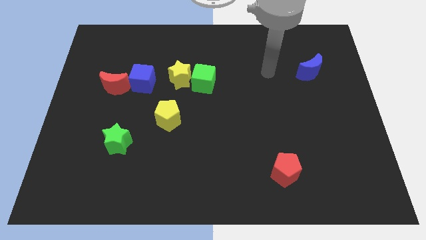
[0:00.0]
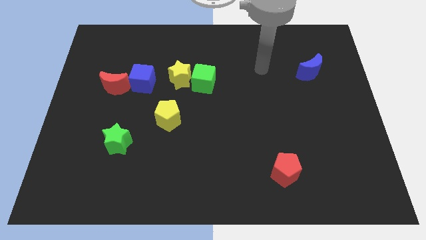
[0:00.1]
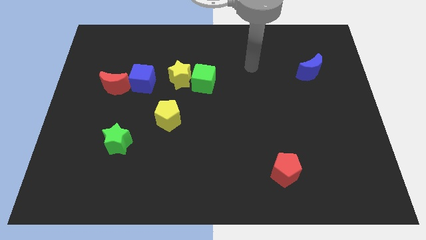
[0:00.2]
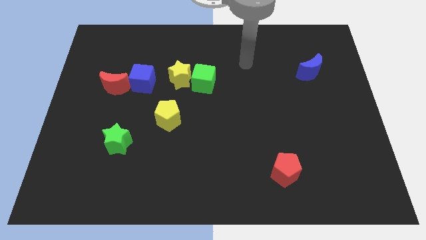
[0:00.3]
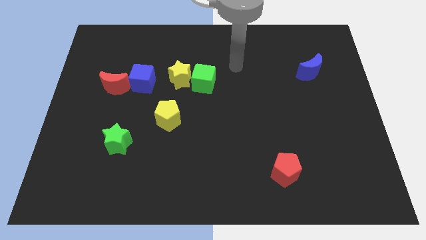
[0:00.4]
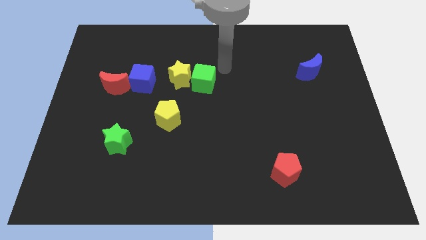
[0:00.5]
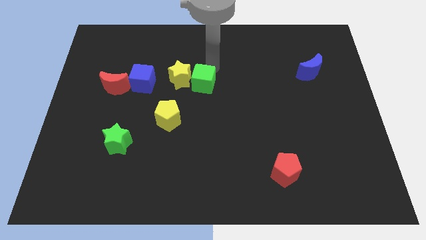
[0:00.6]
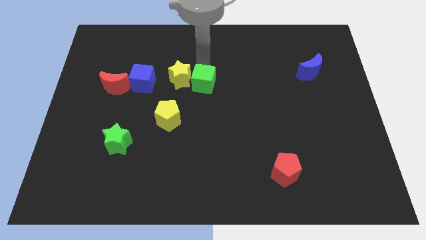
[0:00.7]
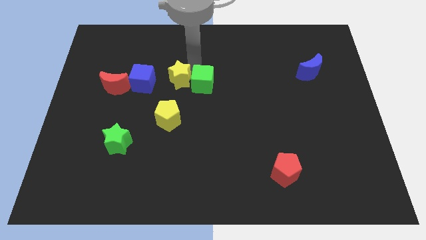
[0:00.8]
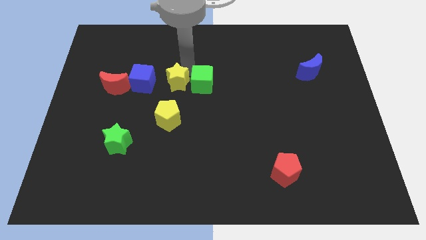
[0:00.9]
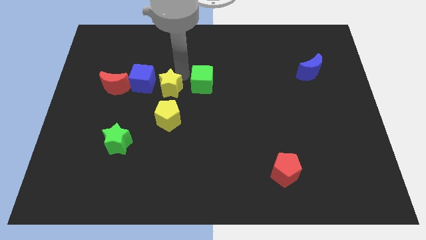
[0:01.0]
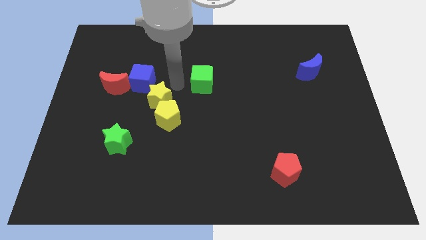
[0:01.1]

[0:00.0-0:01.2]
separate the green cube from the yellow star

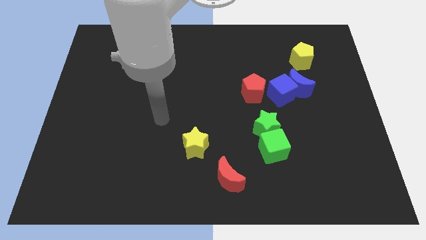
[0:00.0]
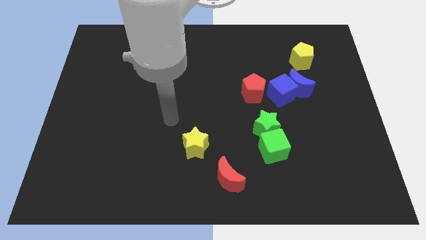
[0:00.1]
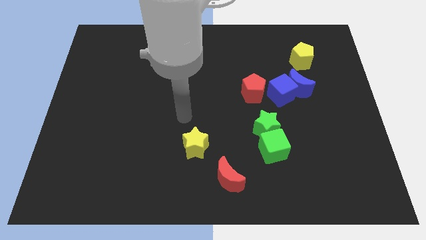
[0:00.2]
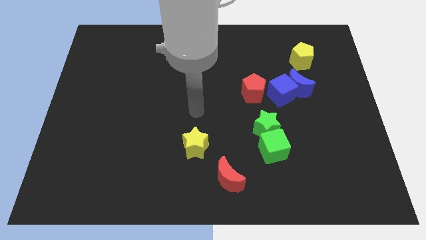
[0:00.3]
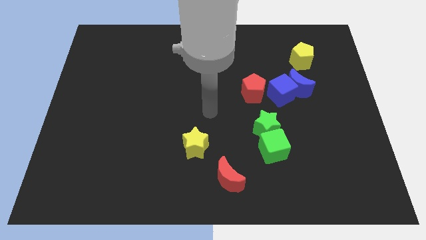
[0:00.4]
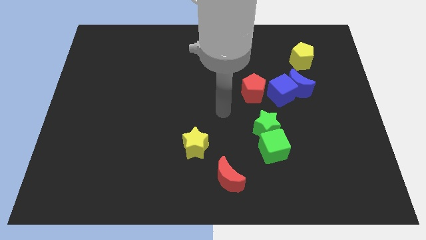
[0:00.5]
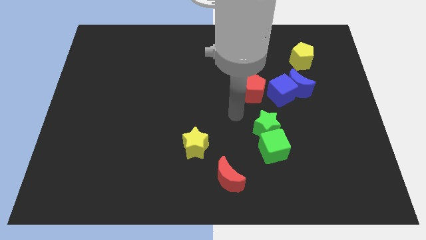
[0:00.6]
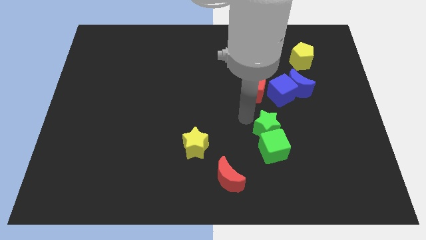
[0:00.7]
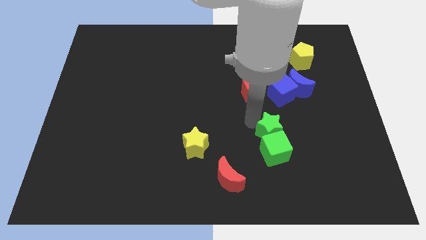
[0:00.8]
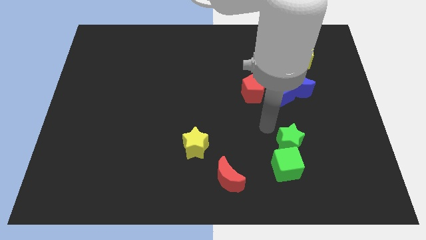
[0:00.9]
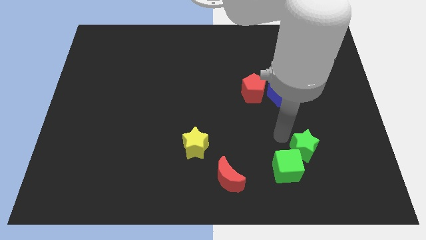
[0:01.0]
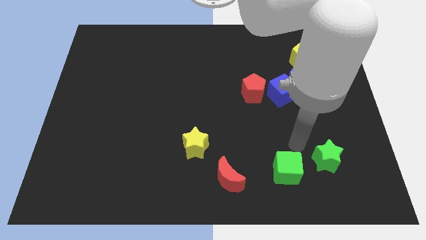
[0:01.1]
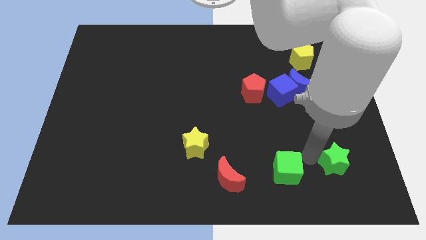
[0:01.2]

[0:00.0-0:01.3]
move the green cube away from the green star

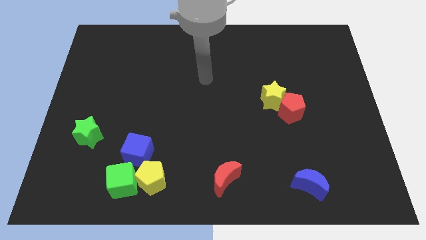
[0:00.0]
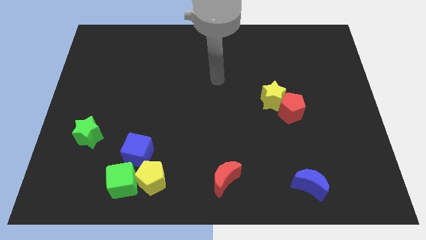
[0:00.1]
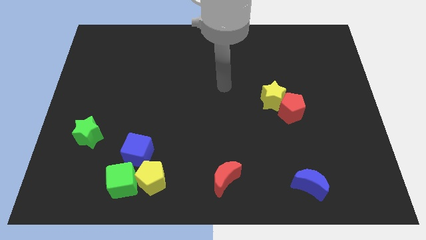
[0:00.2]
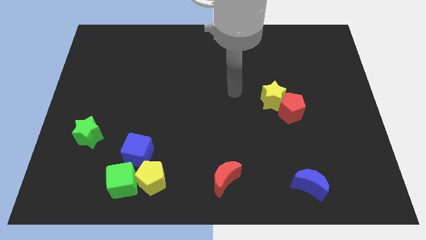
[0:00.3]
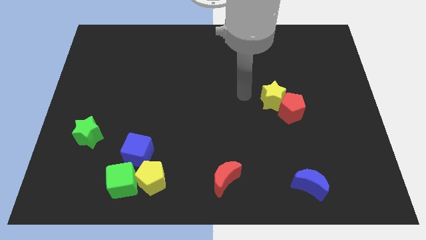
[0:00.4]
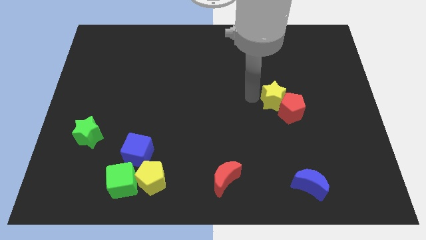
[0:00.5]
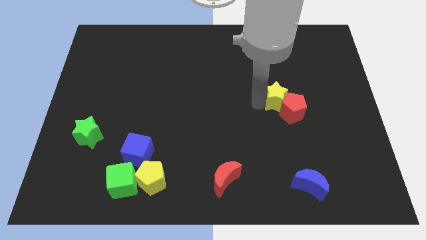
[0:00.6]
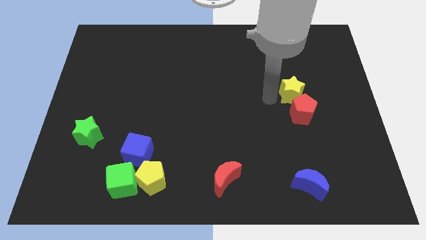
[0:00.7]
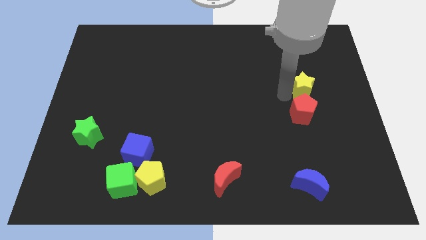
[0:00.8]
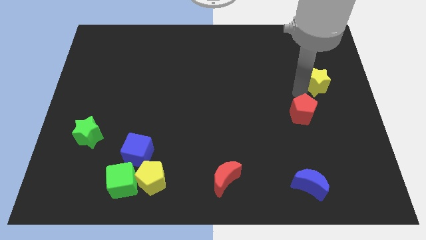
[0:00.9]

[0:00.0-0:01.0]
pull the red pentagon apart from the yellow star

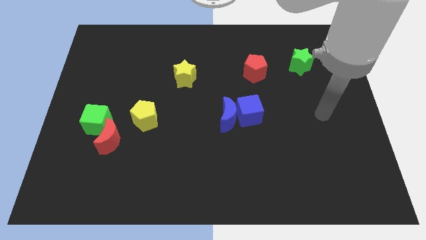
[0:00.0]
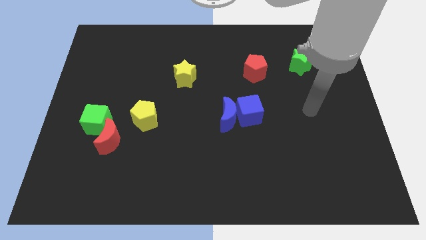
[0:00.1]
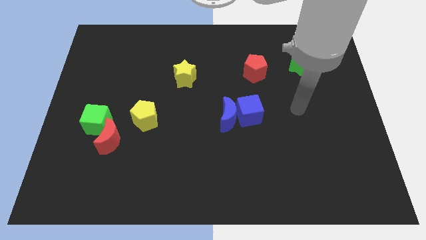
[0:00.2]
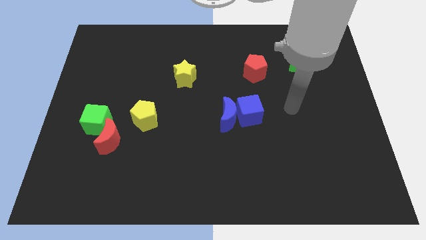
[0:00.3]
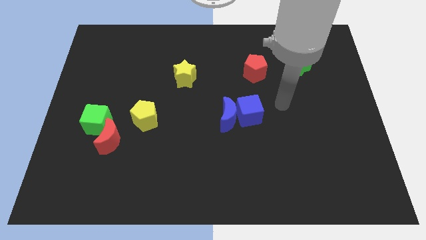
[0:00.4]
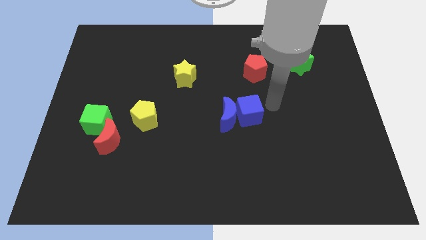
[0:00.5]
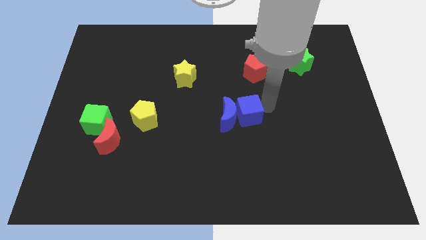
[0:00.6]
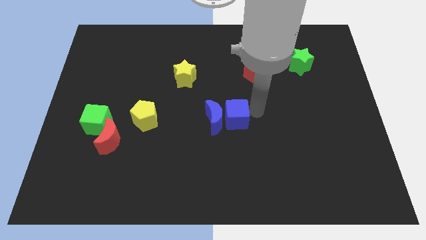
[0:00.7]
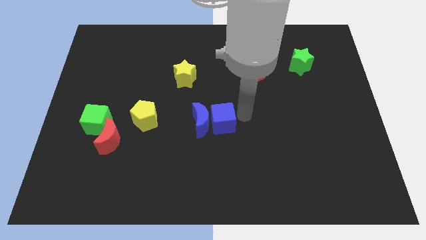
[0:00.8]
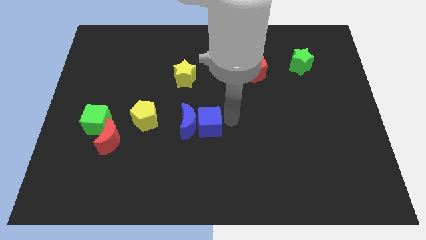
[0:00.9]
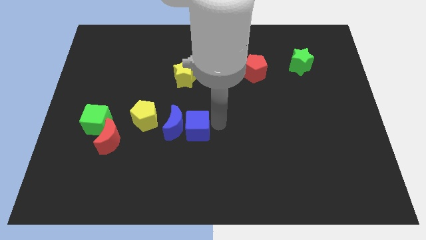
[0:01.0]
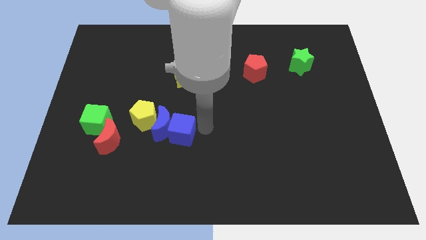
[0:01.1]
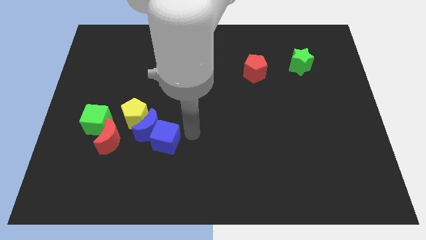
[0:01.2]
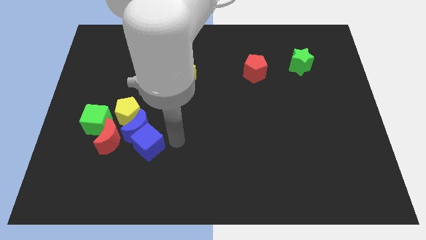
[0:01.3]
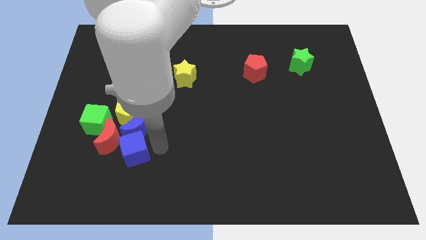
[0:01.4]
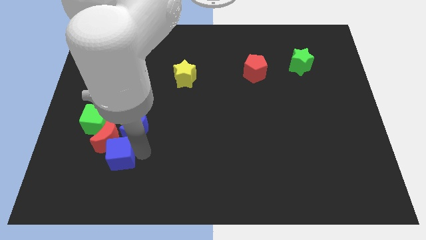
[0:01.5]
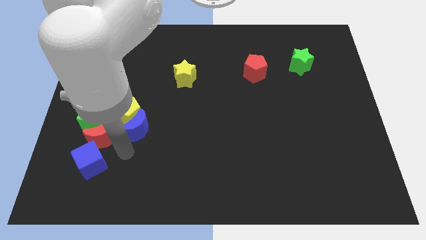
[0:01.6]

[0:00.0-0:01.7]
pull the blue moon apart from the blue cube

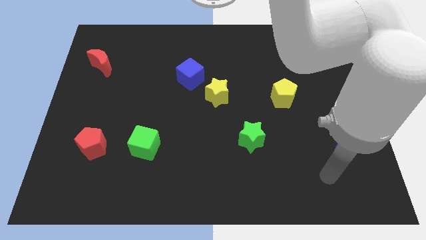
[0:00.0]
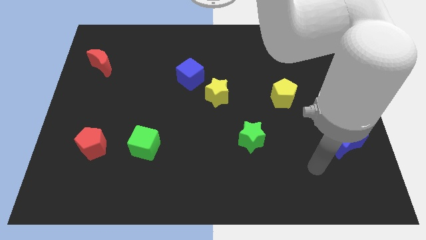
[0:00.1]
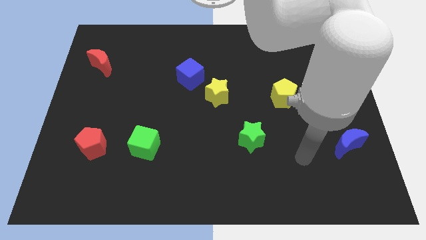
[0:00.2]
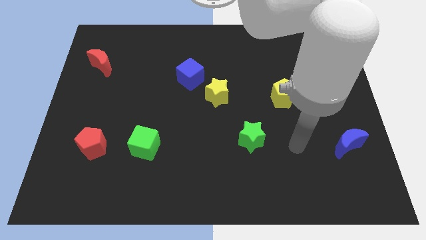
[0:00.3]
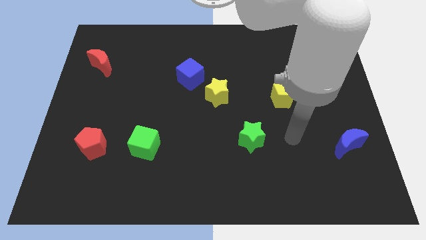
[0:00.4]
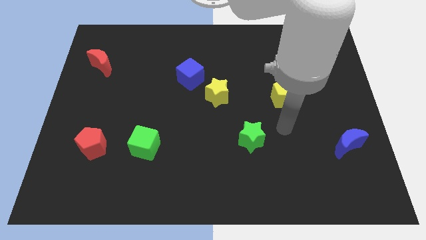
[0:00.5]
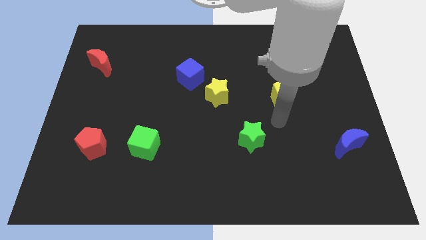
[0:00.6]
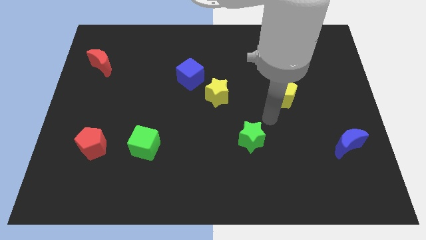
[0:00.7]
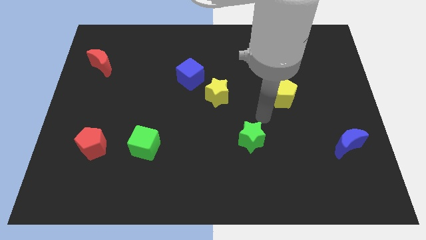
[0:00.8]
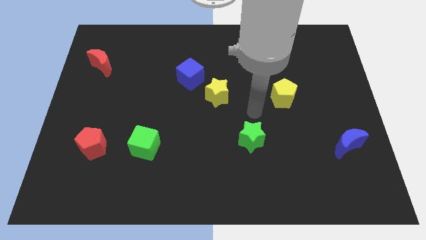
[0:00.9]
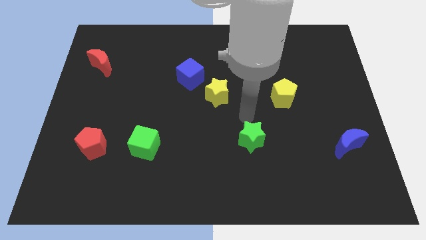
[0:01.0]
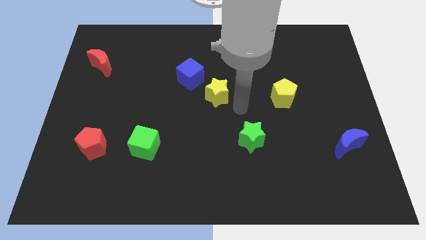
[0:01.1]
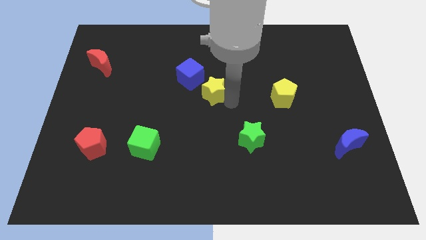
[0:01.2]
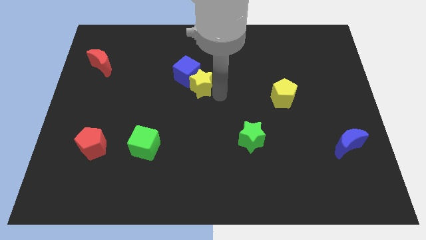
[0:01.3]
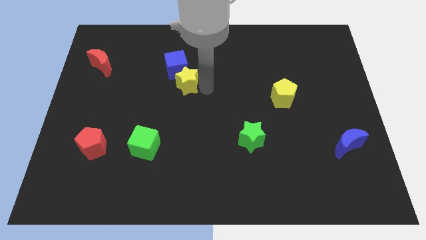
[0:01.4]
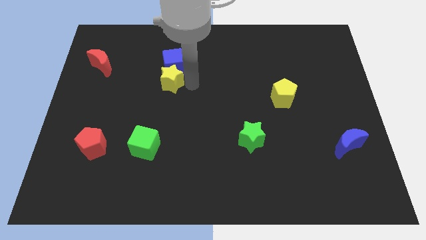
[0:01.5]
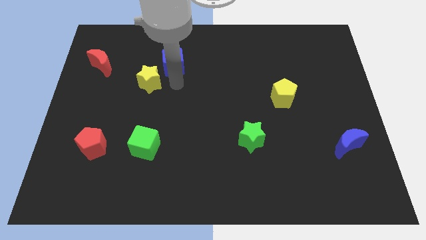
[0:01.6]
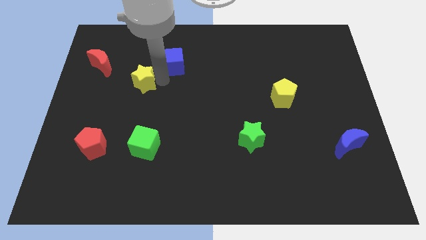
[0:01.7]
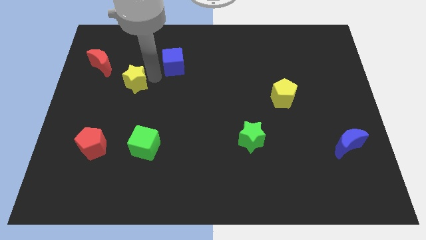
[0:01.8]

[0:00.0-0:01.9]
move the blue cube away from the yellow star

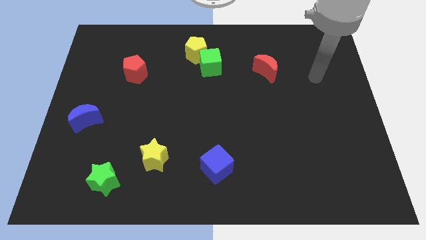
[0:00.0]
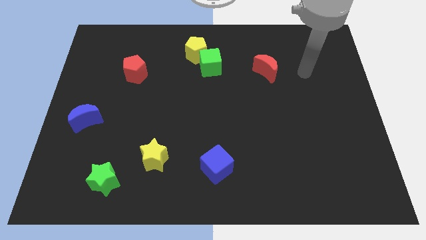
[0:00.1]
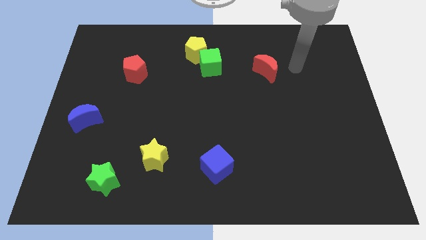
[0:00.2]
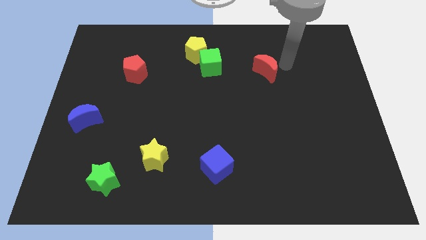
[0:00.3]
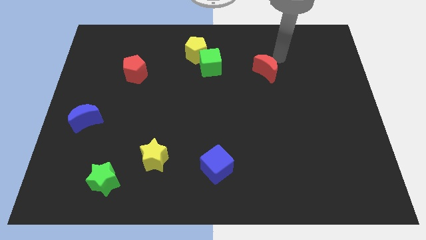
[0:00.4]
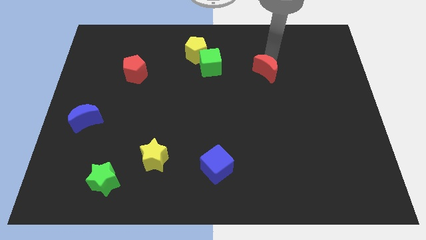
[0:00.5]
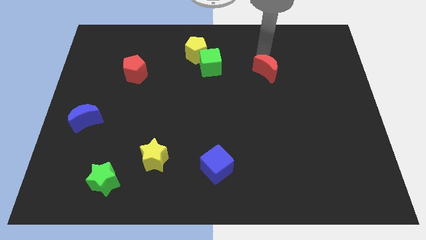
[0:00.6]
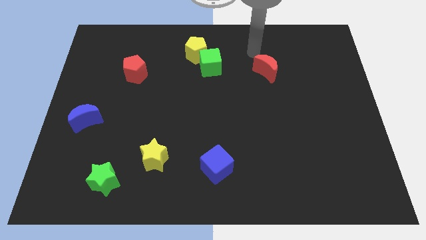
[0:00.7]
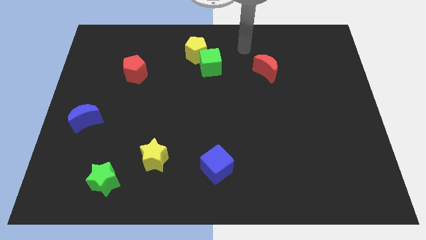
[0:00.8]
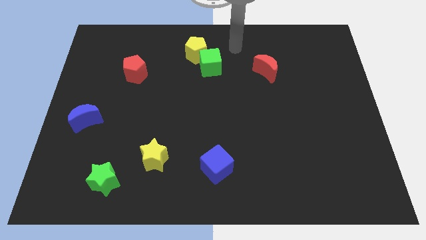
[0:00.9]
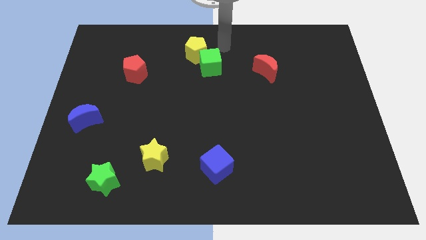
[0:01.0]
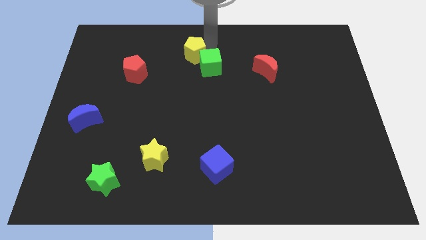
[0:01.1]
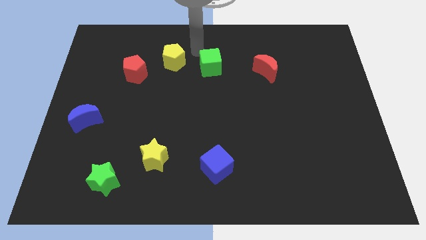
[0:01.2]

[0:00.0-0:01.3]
move the green cube away from the yellow pentagon

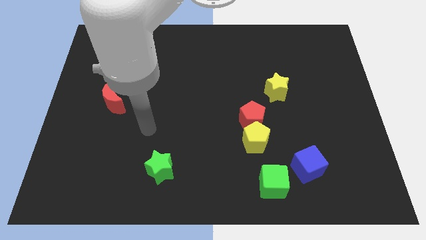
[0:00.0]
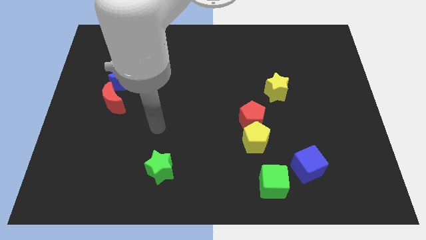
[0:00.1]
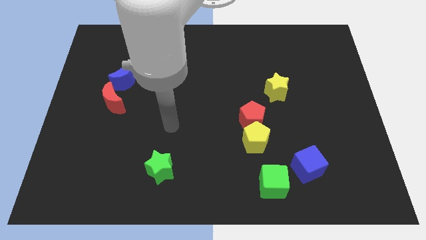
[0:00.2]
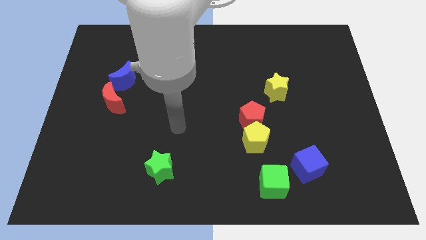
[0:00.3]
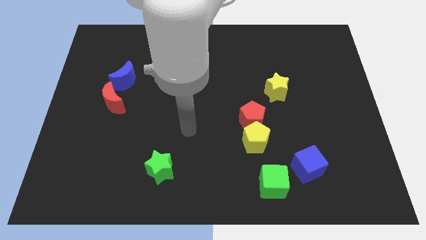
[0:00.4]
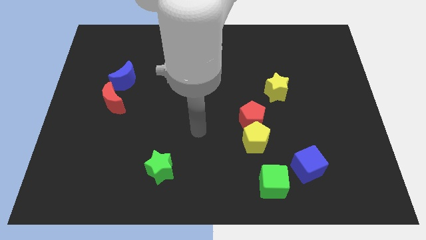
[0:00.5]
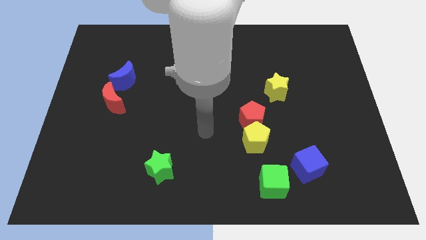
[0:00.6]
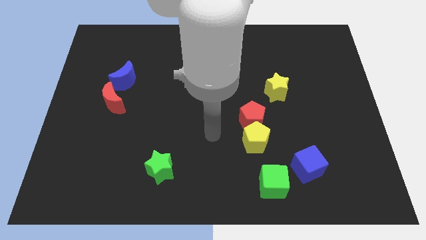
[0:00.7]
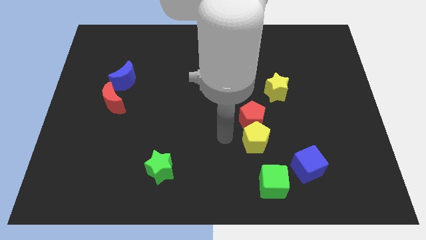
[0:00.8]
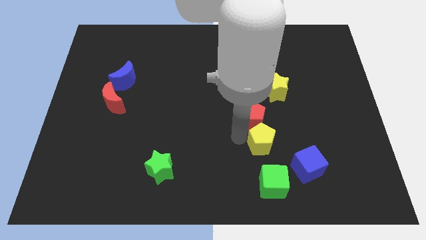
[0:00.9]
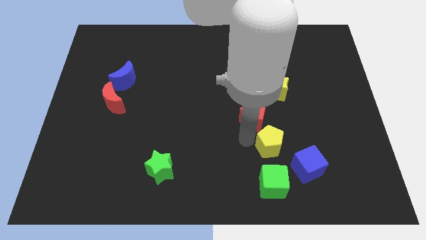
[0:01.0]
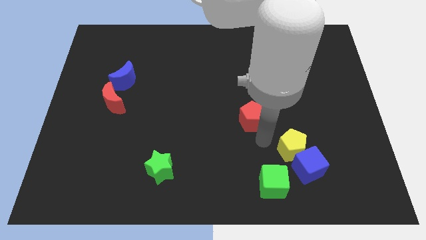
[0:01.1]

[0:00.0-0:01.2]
separate the red pentagon from the yellow pentagon
